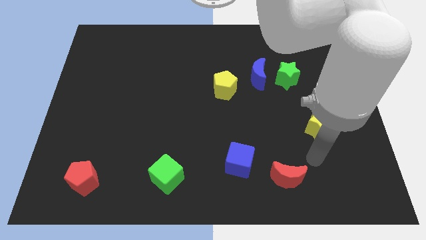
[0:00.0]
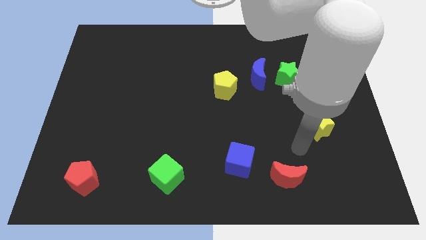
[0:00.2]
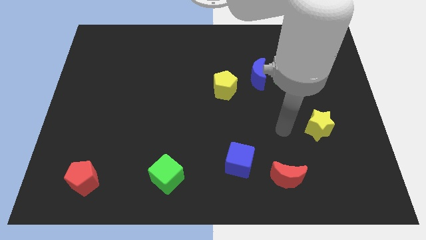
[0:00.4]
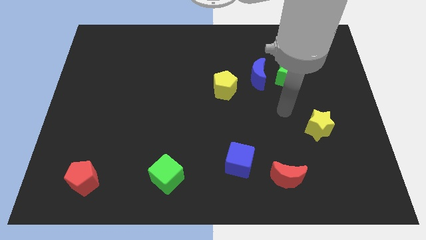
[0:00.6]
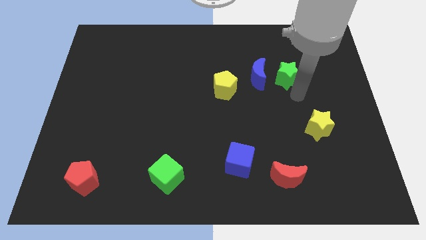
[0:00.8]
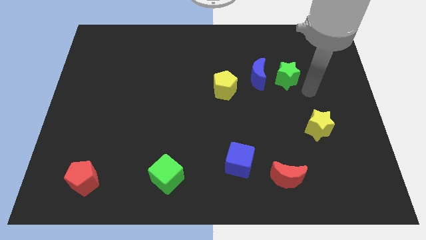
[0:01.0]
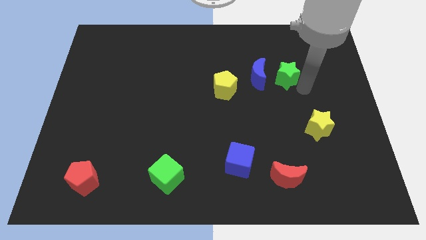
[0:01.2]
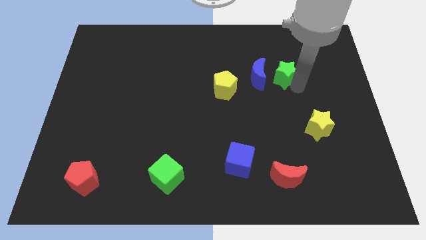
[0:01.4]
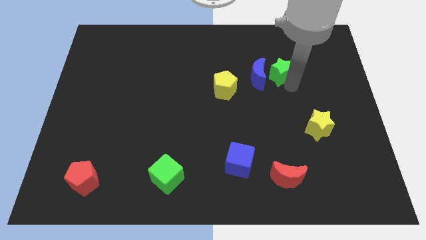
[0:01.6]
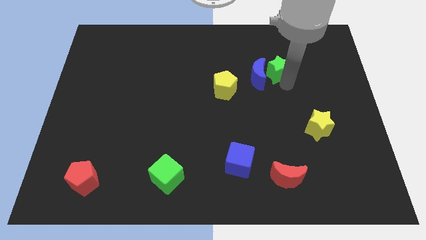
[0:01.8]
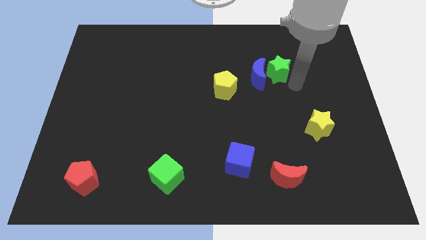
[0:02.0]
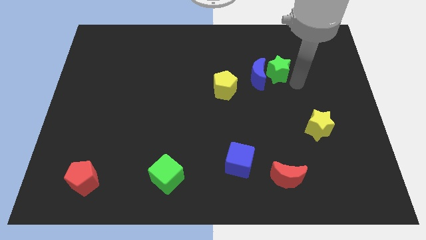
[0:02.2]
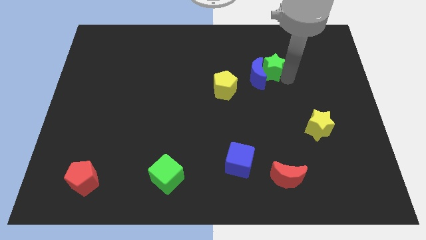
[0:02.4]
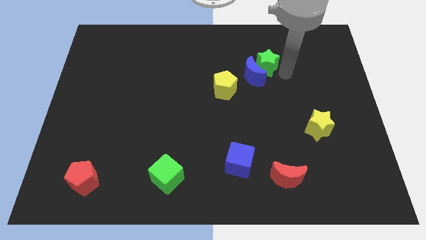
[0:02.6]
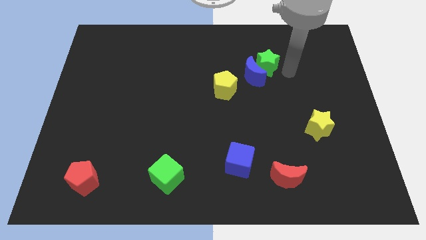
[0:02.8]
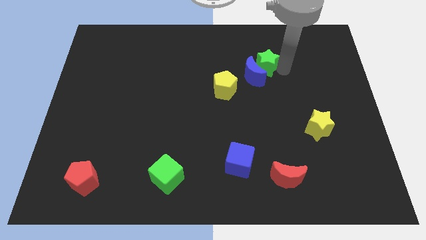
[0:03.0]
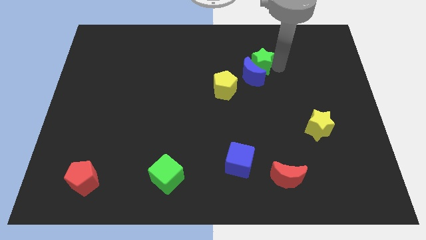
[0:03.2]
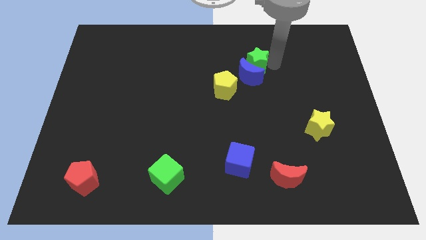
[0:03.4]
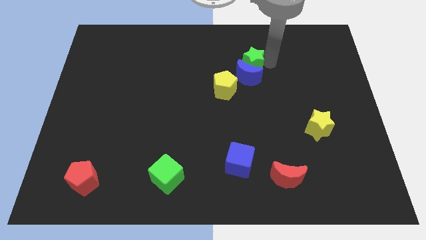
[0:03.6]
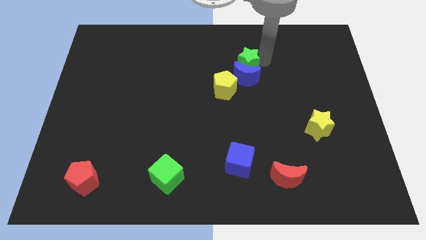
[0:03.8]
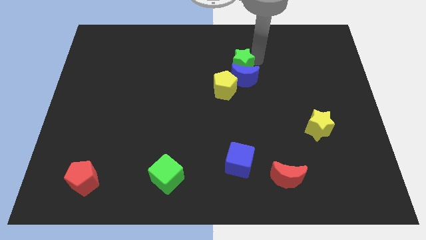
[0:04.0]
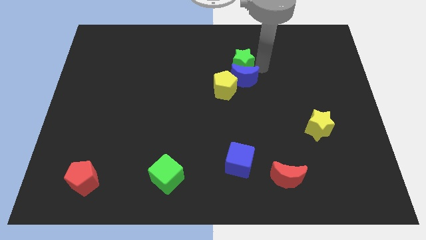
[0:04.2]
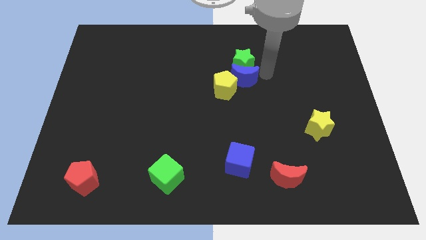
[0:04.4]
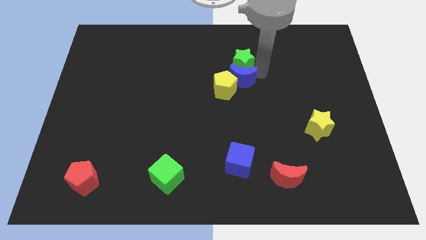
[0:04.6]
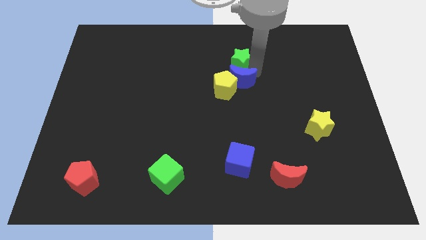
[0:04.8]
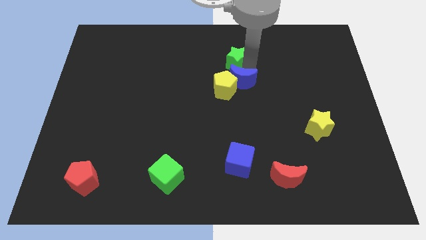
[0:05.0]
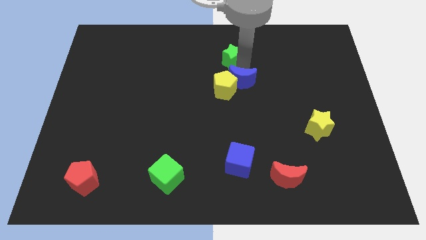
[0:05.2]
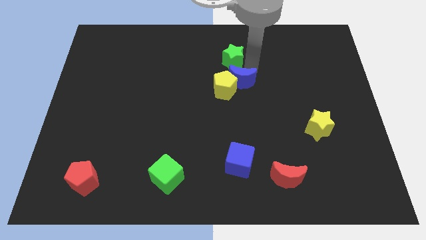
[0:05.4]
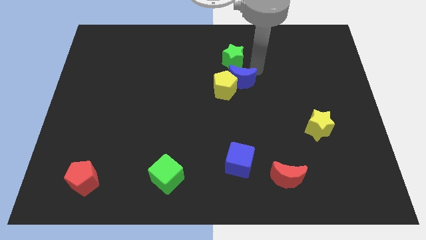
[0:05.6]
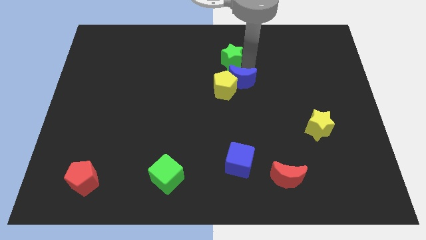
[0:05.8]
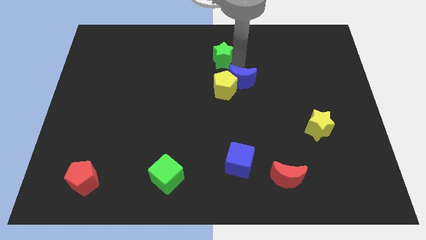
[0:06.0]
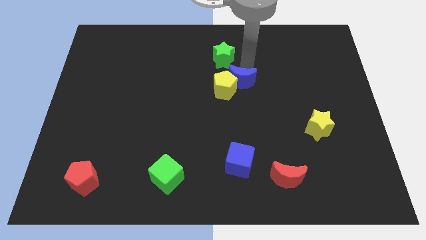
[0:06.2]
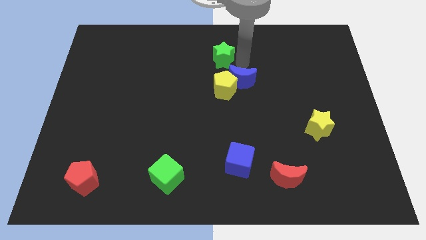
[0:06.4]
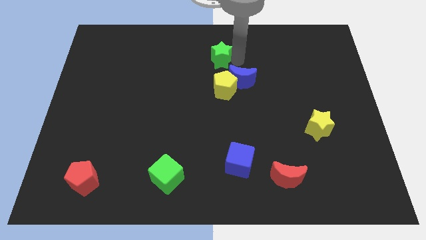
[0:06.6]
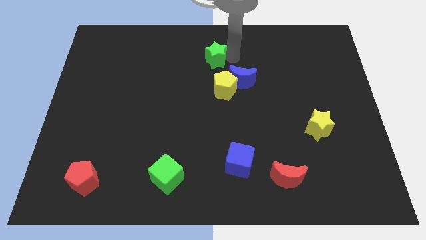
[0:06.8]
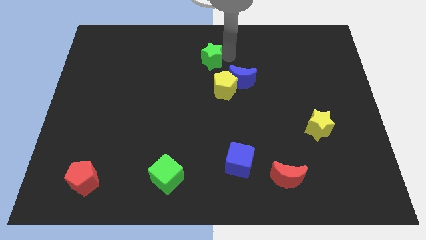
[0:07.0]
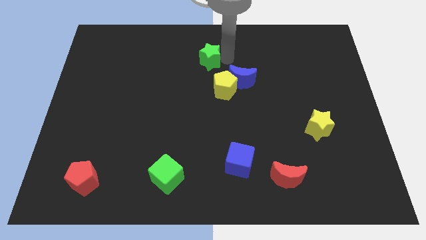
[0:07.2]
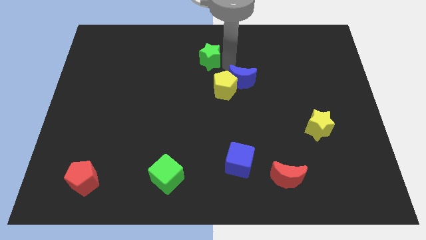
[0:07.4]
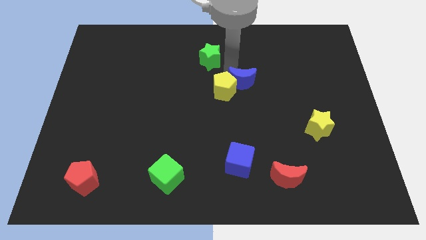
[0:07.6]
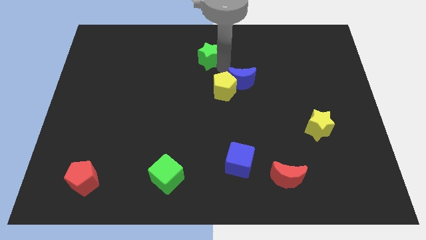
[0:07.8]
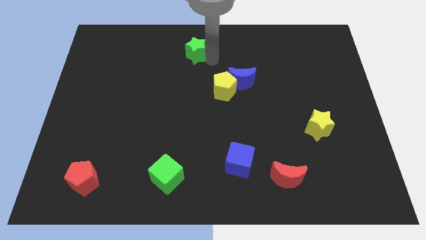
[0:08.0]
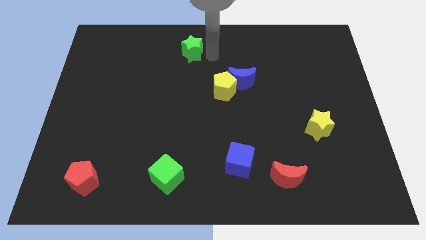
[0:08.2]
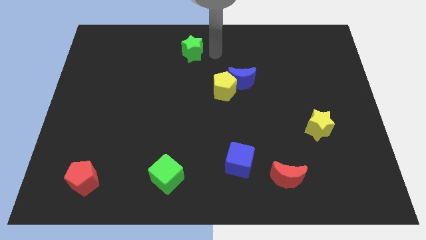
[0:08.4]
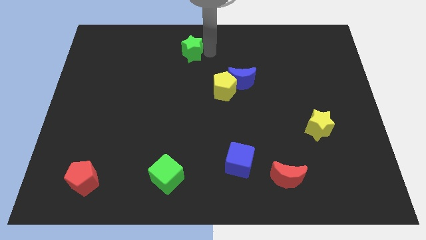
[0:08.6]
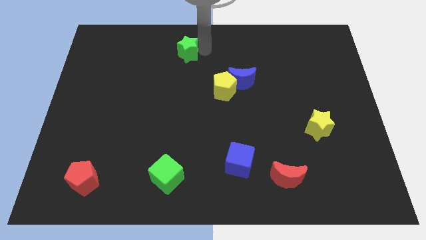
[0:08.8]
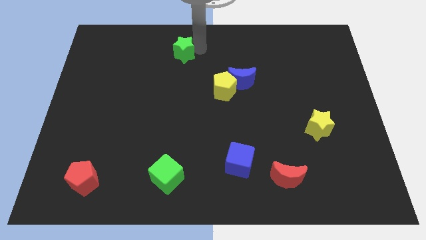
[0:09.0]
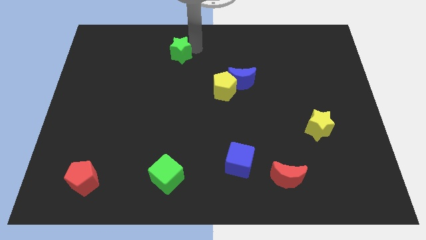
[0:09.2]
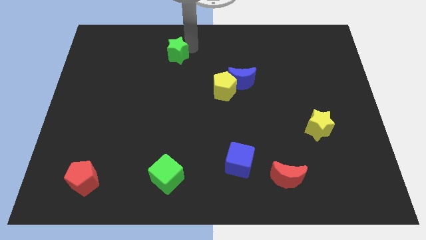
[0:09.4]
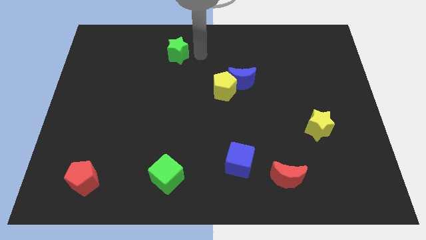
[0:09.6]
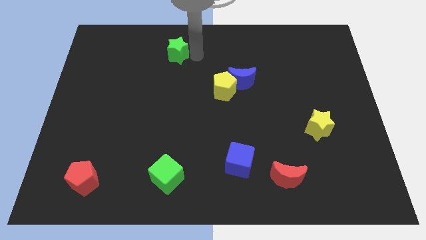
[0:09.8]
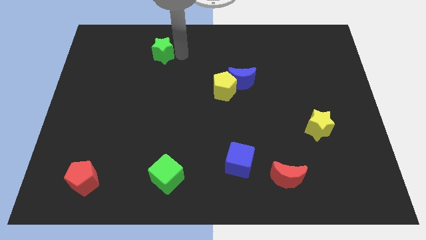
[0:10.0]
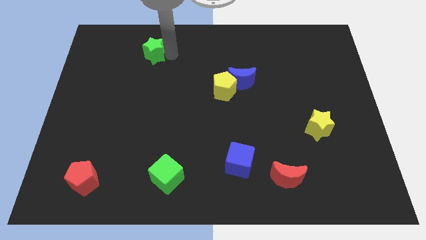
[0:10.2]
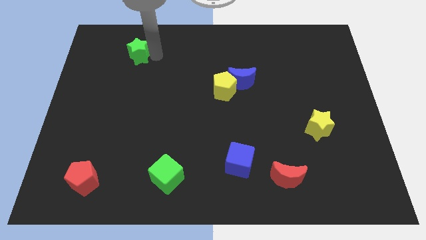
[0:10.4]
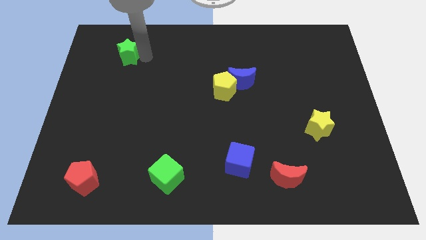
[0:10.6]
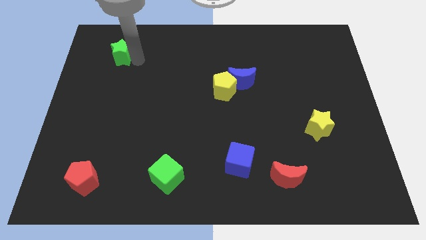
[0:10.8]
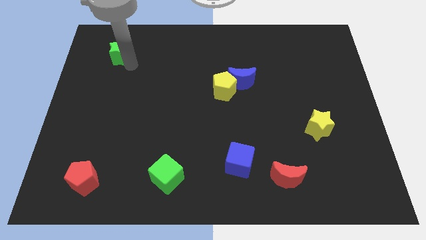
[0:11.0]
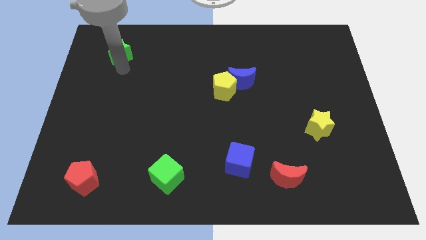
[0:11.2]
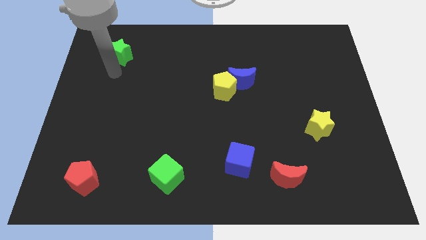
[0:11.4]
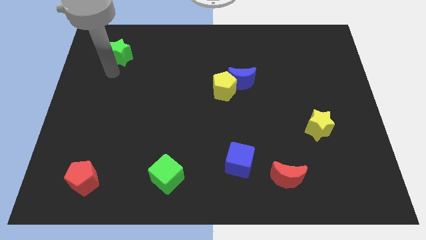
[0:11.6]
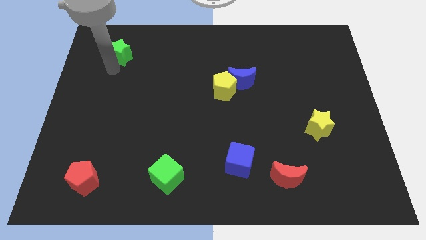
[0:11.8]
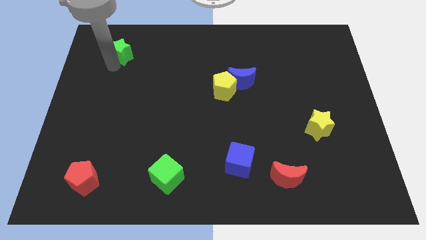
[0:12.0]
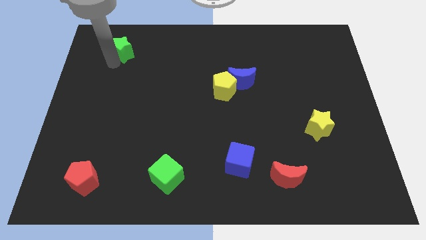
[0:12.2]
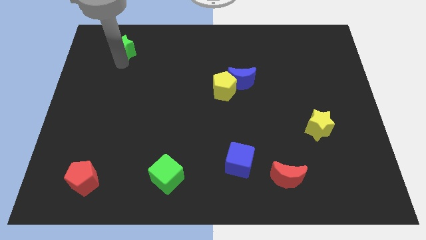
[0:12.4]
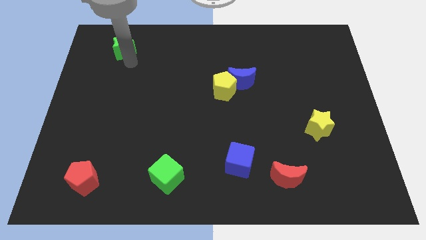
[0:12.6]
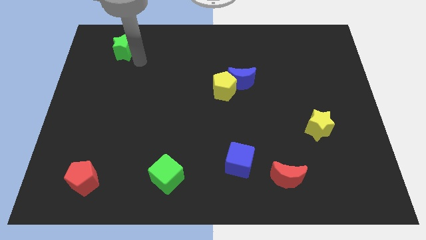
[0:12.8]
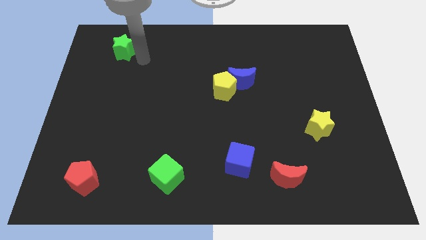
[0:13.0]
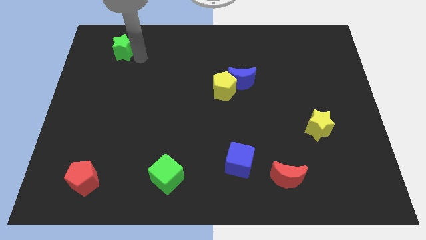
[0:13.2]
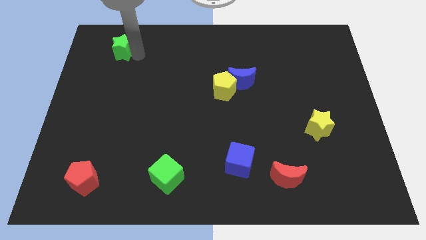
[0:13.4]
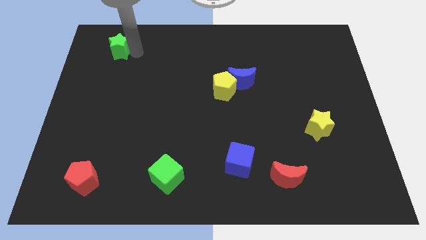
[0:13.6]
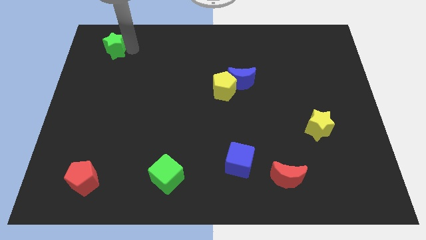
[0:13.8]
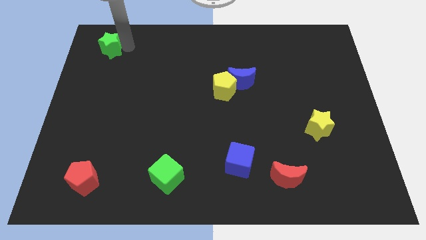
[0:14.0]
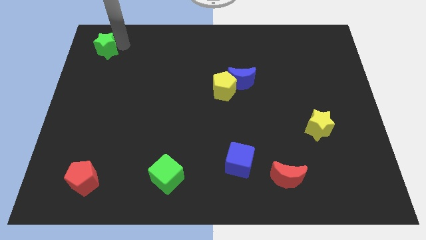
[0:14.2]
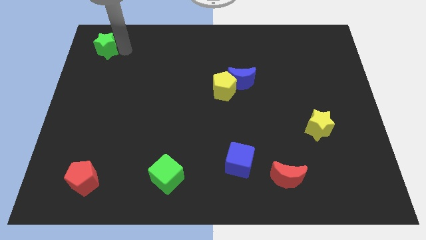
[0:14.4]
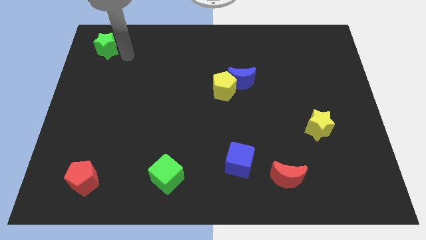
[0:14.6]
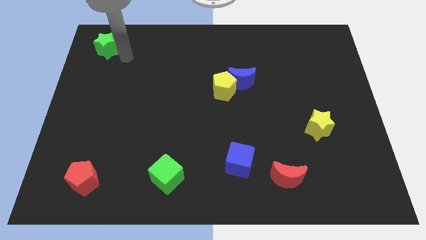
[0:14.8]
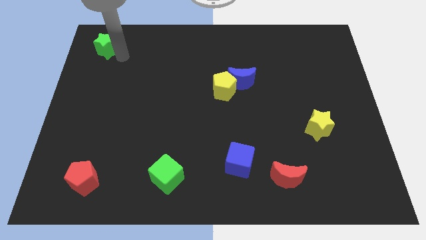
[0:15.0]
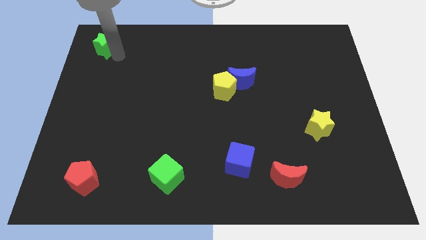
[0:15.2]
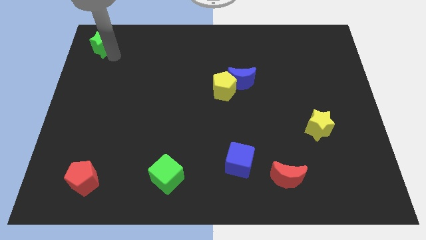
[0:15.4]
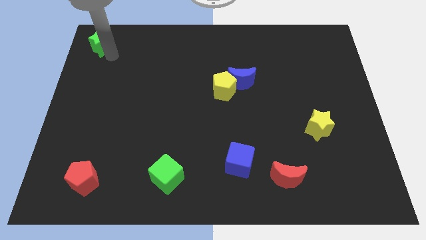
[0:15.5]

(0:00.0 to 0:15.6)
move the green star to the top left corner
